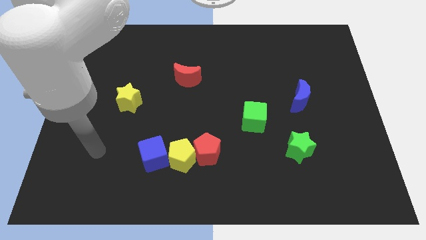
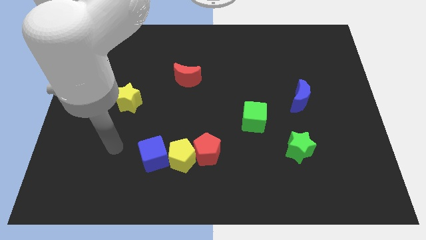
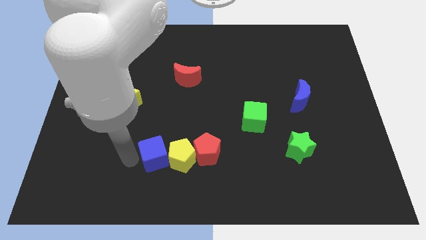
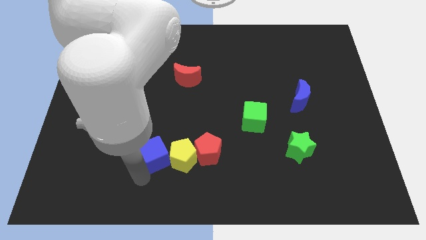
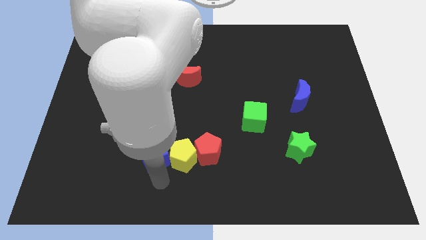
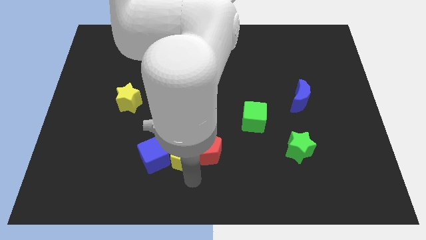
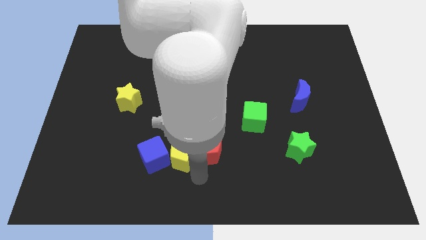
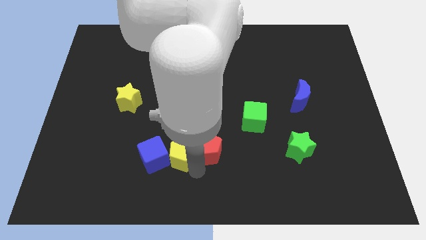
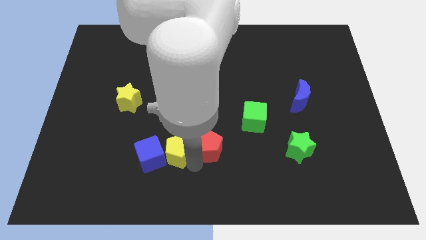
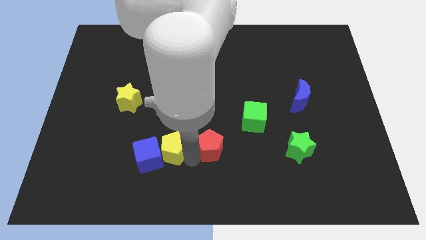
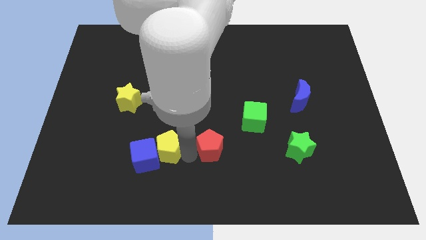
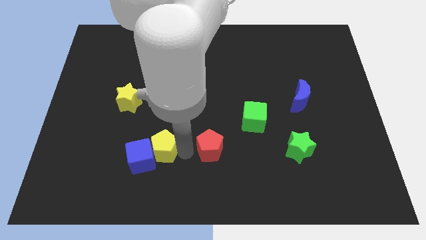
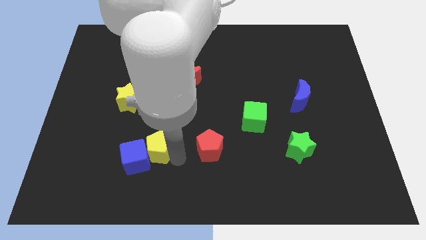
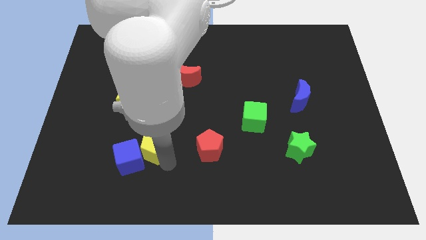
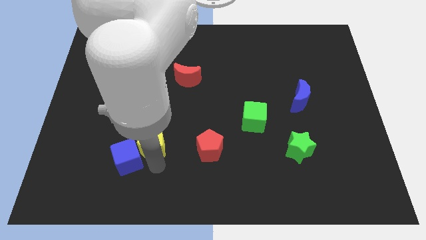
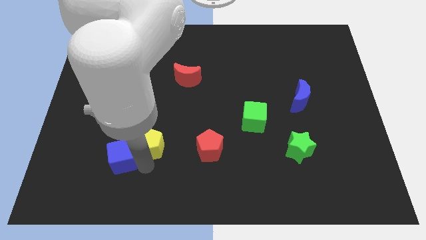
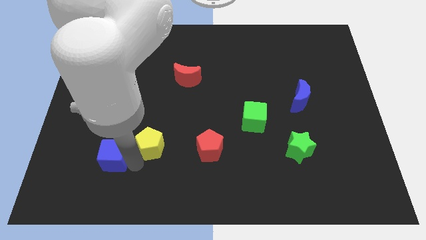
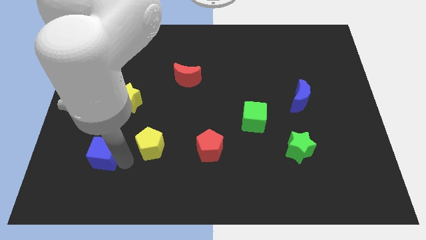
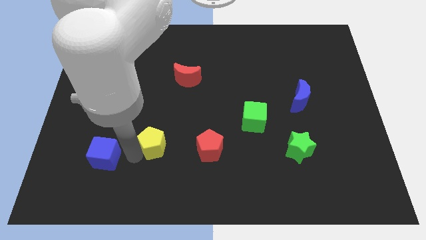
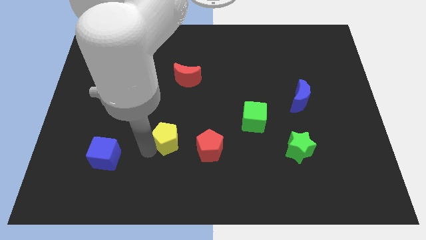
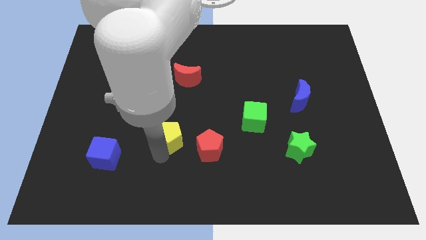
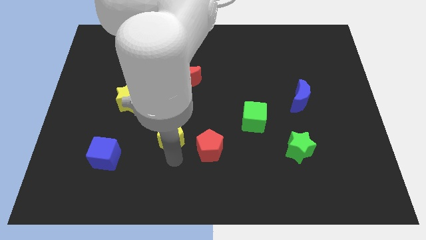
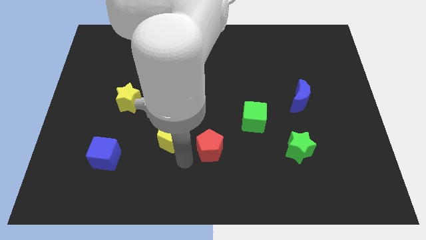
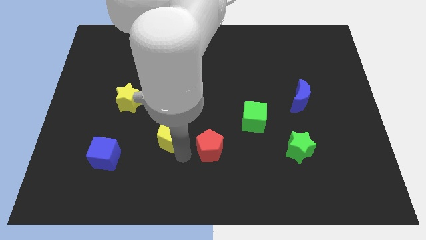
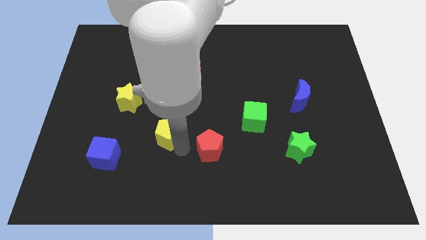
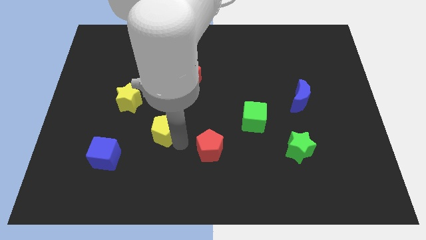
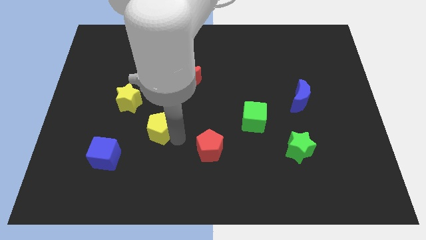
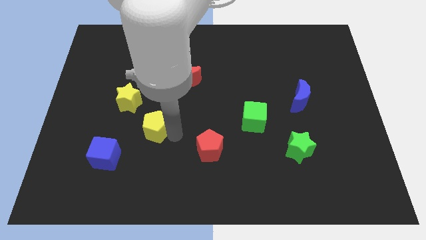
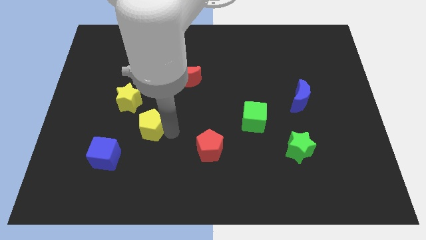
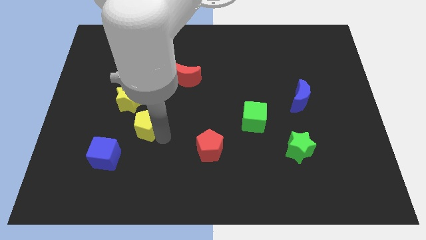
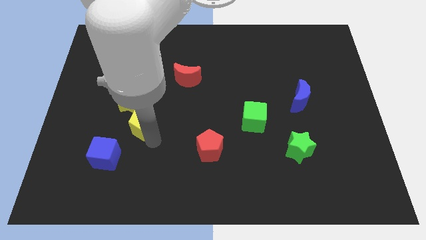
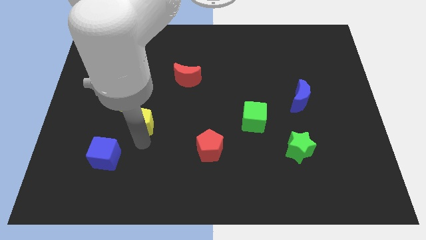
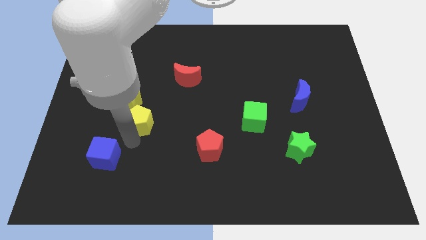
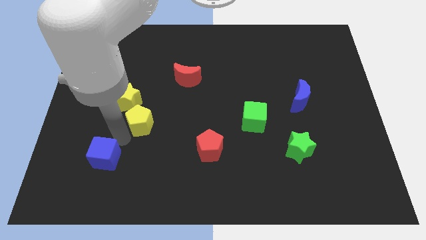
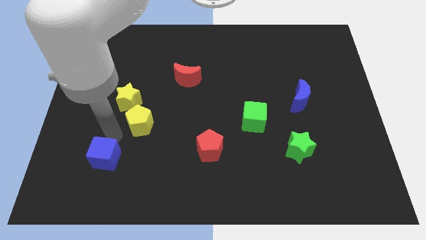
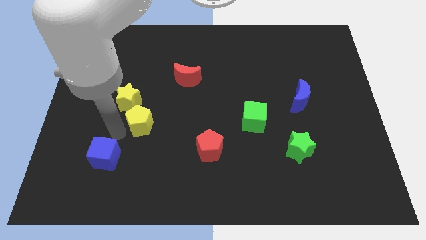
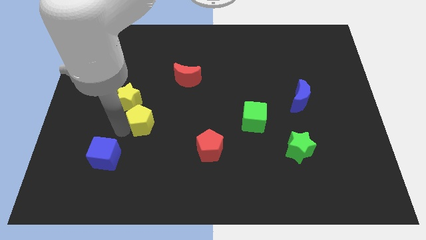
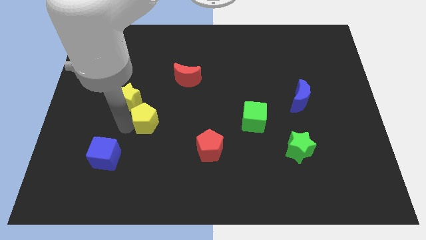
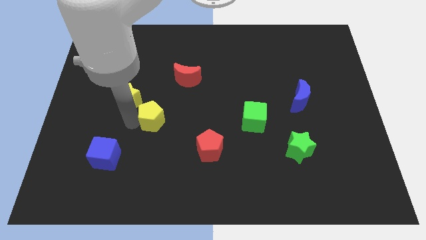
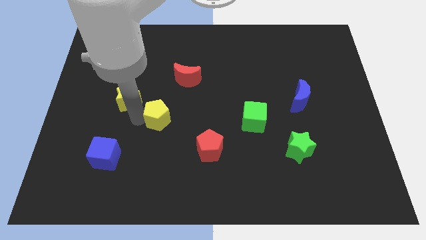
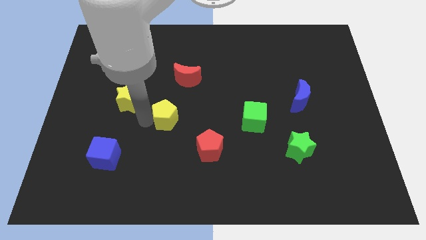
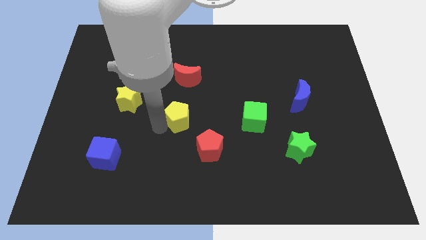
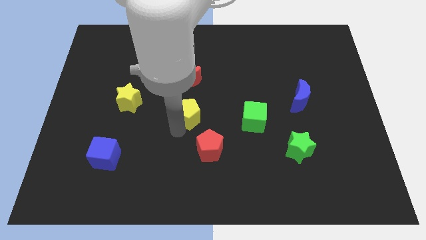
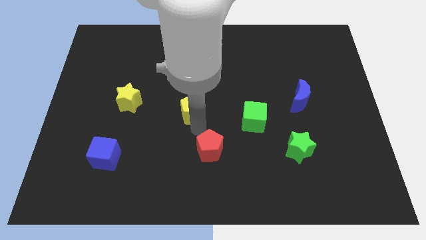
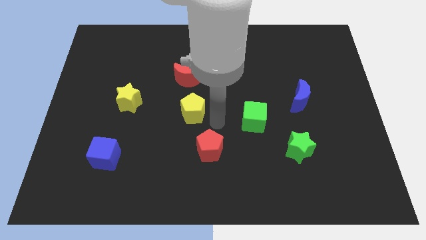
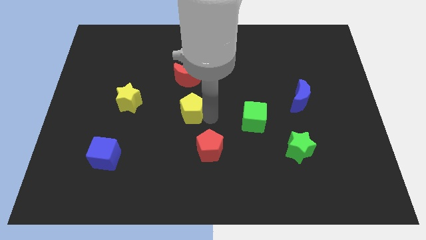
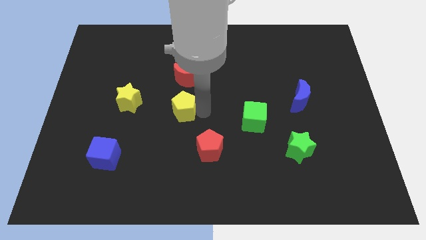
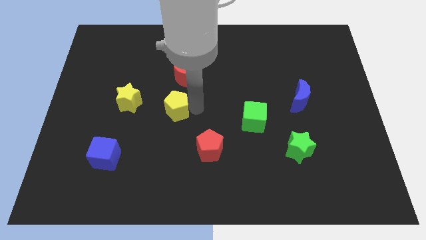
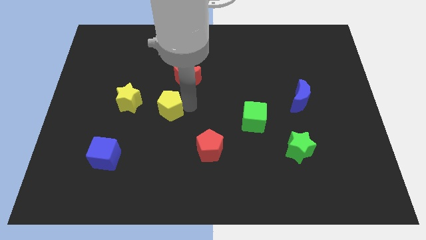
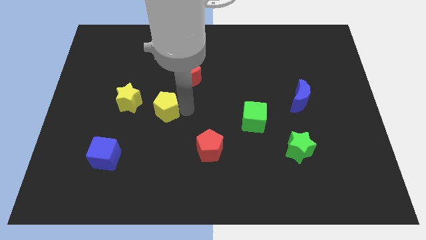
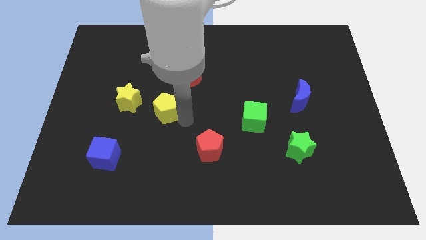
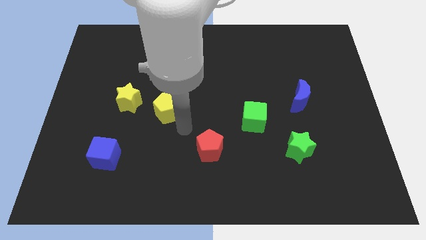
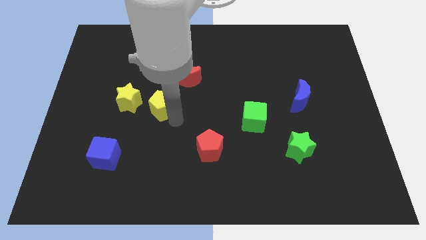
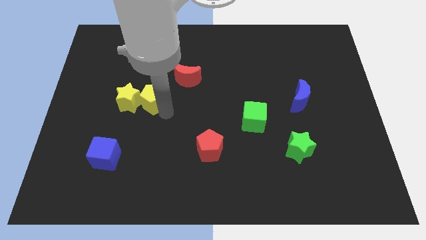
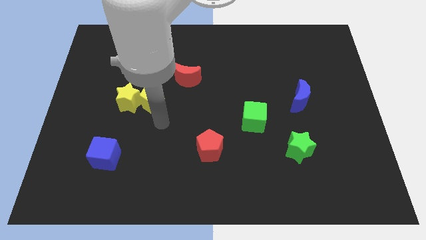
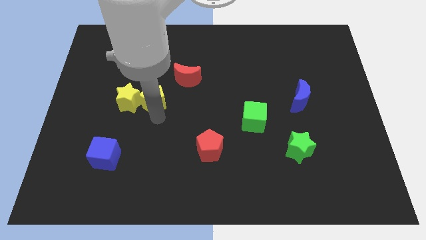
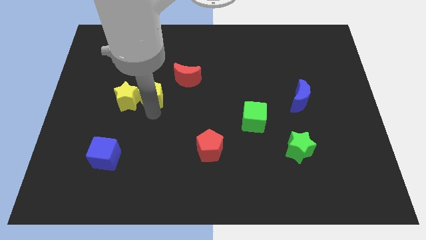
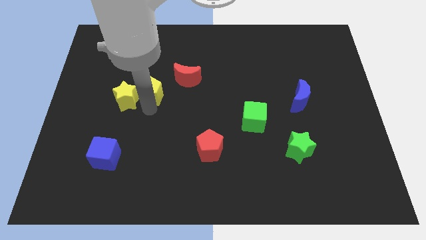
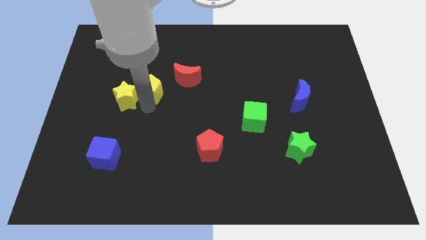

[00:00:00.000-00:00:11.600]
slide the yellow pentagon to the left side of the red moon
